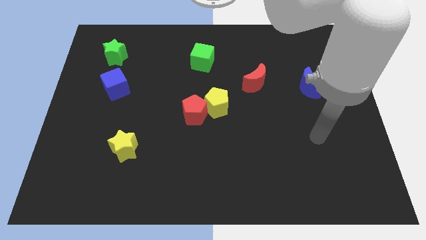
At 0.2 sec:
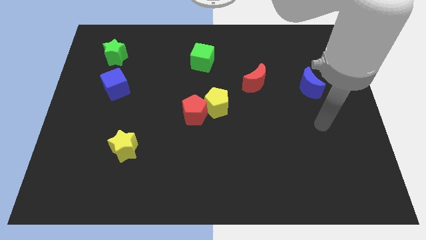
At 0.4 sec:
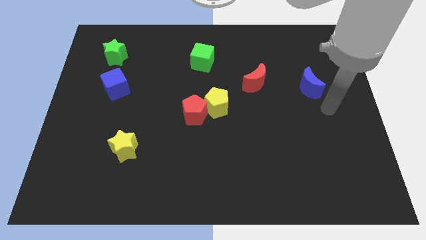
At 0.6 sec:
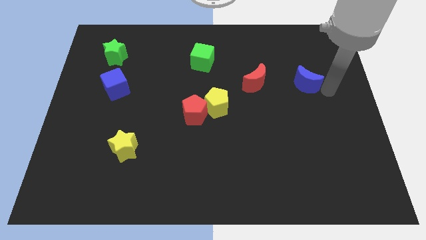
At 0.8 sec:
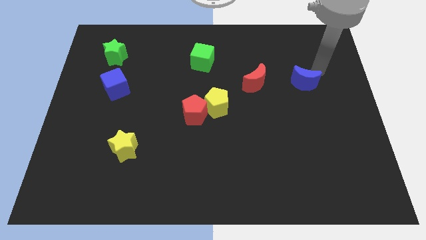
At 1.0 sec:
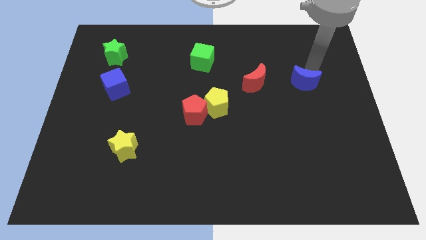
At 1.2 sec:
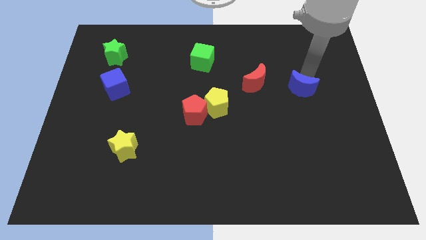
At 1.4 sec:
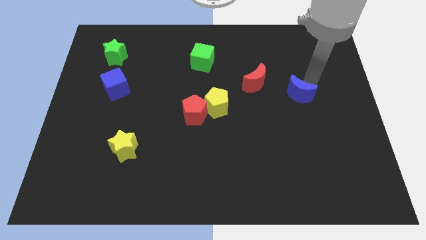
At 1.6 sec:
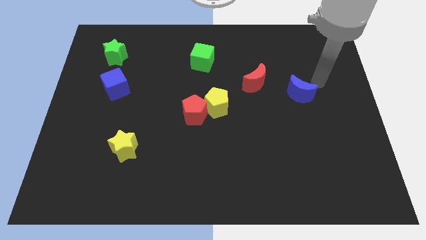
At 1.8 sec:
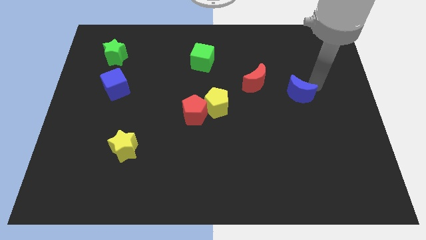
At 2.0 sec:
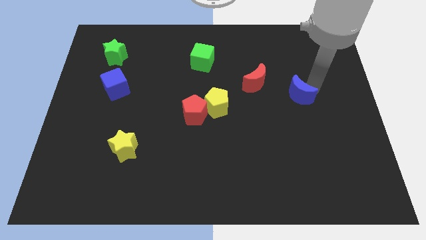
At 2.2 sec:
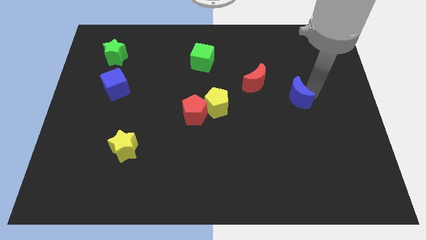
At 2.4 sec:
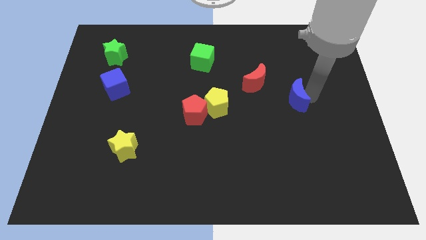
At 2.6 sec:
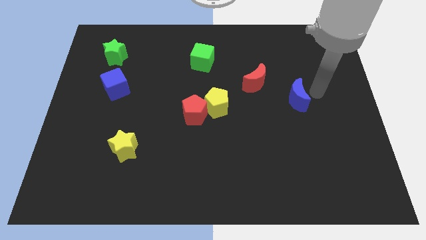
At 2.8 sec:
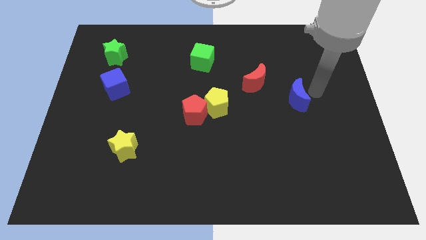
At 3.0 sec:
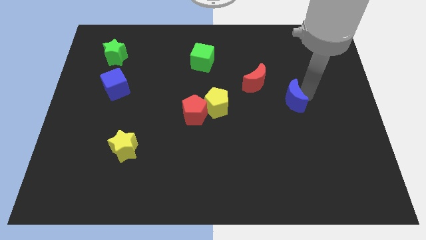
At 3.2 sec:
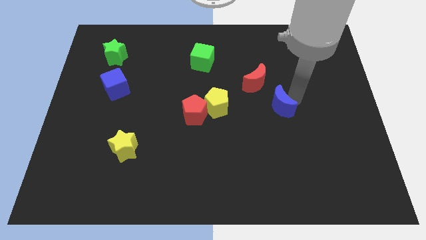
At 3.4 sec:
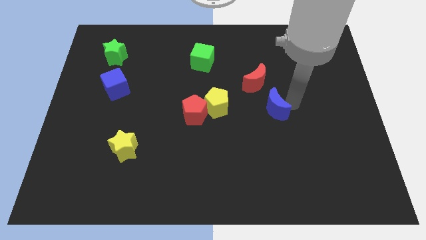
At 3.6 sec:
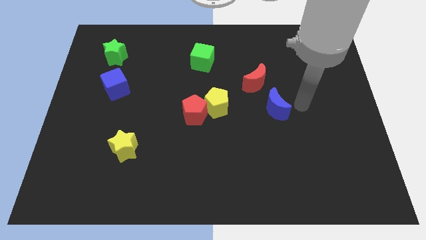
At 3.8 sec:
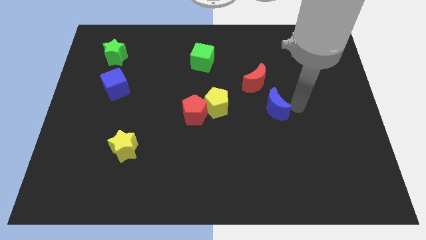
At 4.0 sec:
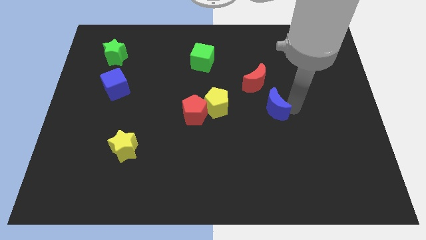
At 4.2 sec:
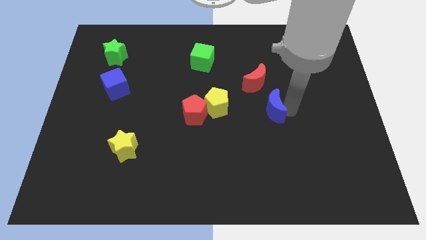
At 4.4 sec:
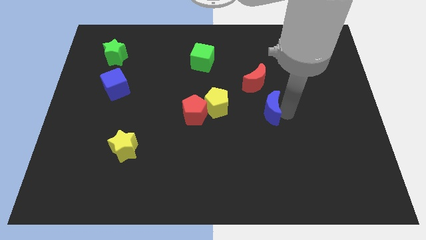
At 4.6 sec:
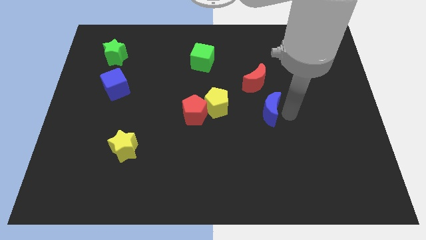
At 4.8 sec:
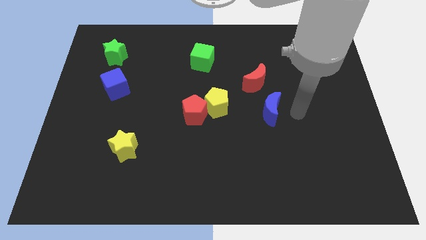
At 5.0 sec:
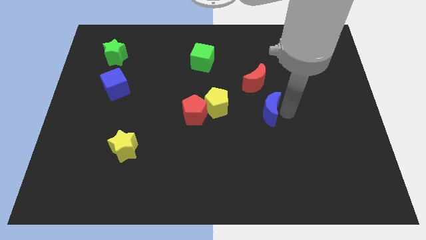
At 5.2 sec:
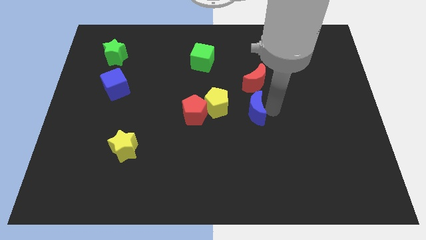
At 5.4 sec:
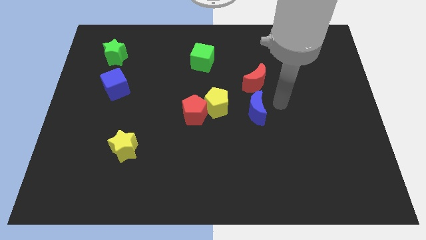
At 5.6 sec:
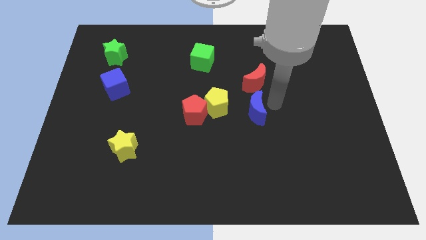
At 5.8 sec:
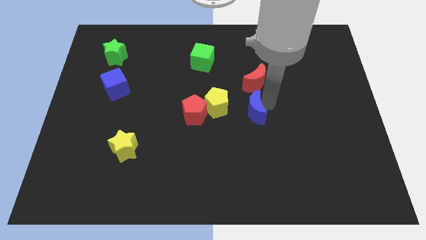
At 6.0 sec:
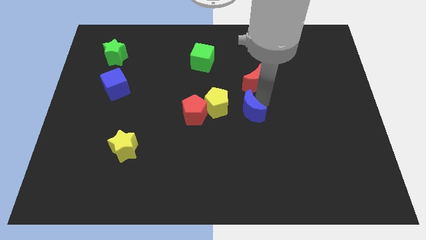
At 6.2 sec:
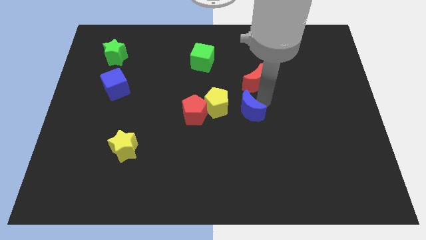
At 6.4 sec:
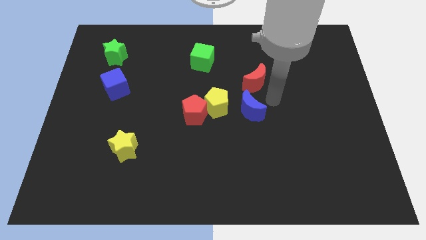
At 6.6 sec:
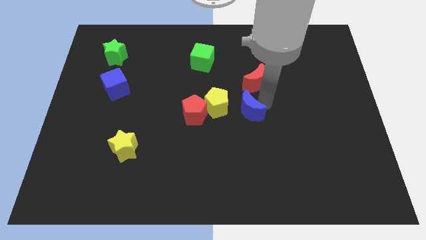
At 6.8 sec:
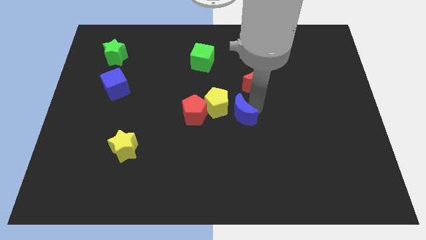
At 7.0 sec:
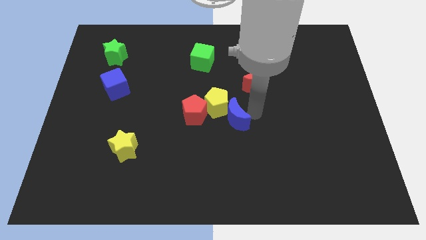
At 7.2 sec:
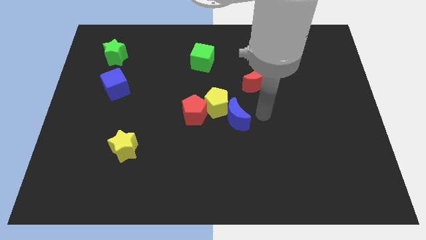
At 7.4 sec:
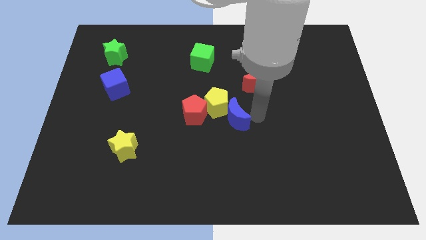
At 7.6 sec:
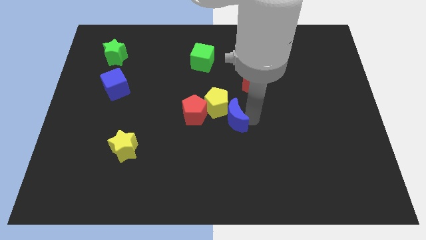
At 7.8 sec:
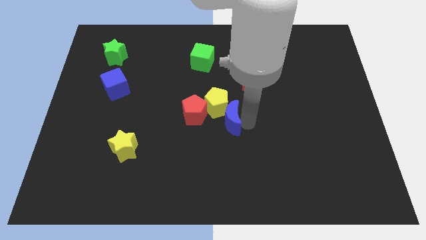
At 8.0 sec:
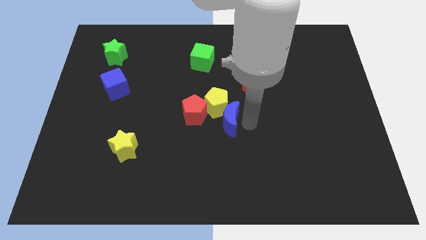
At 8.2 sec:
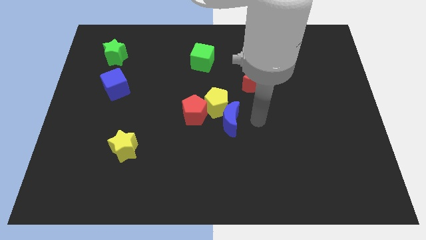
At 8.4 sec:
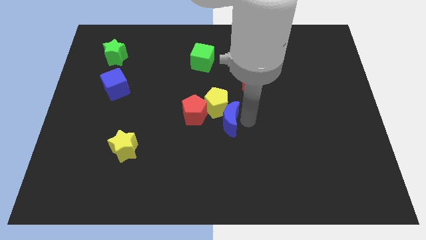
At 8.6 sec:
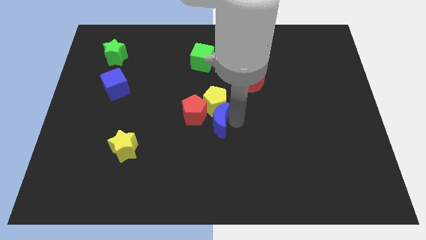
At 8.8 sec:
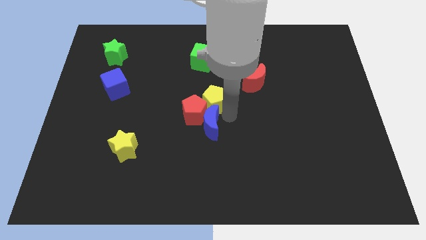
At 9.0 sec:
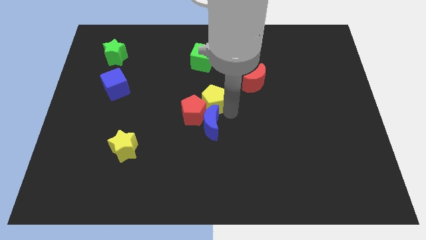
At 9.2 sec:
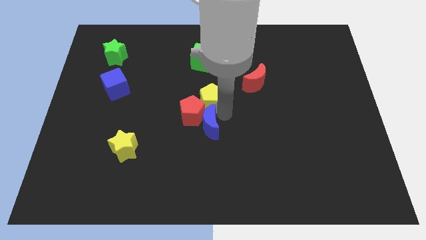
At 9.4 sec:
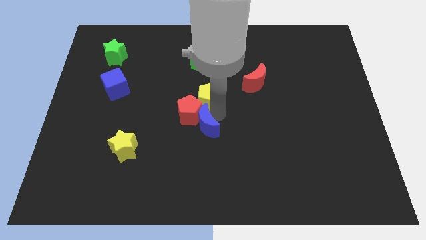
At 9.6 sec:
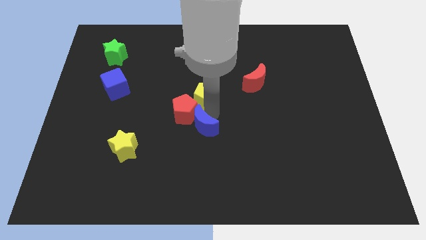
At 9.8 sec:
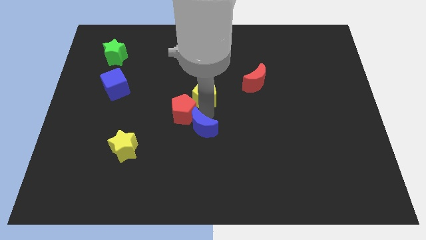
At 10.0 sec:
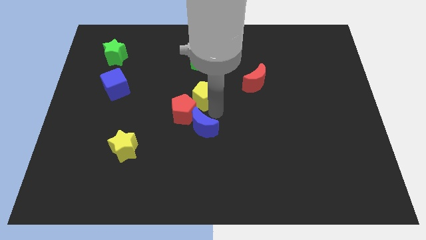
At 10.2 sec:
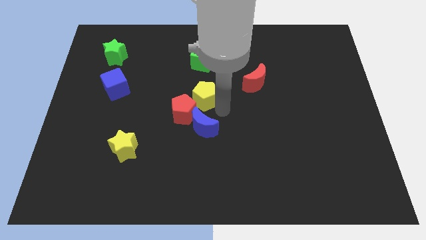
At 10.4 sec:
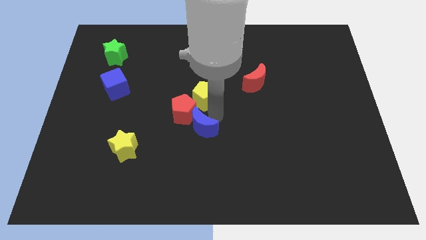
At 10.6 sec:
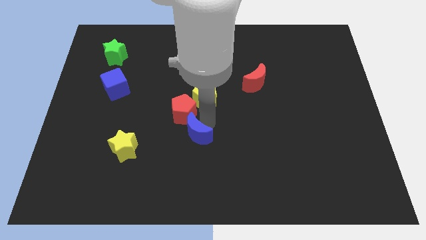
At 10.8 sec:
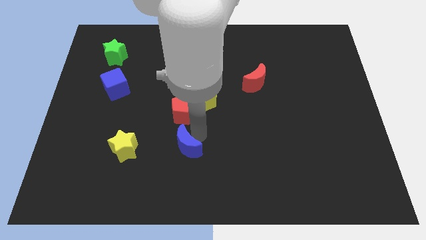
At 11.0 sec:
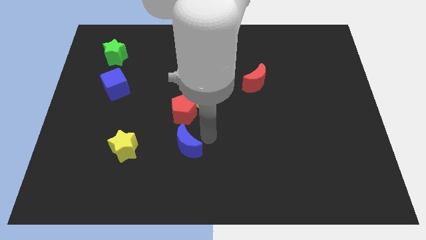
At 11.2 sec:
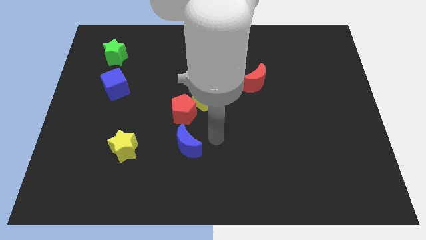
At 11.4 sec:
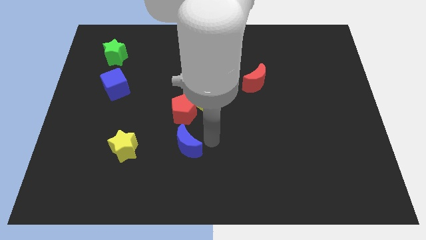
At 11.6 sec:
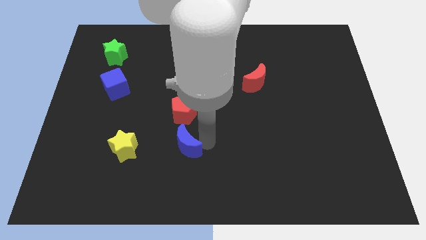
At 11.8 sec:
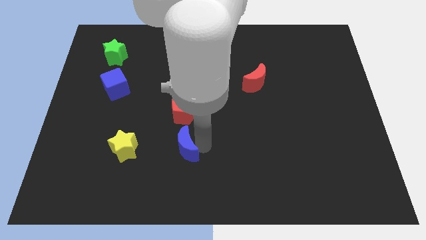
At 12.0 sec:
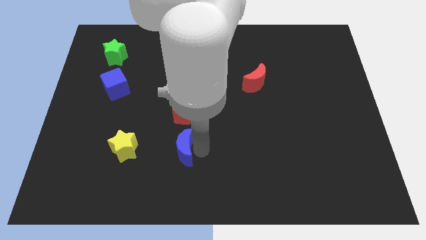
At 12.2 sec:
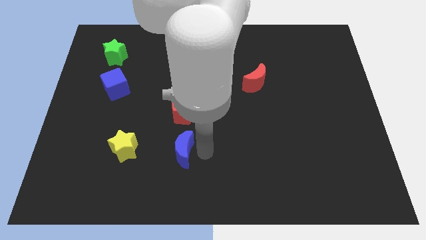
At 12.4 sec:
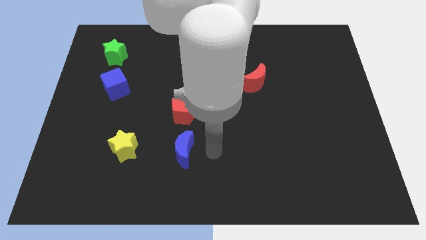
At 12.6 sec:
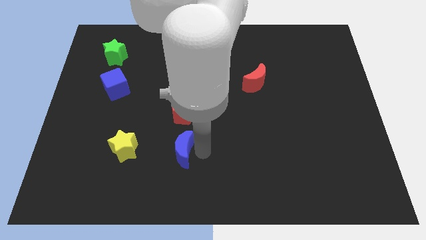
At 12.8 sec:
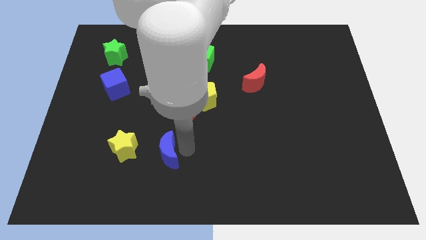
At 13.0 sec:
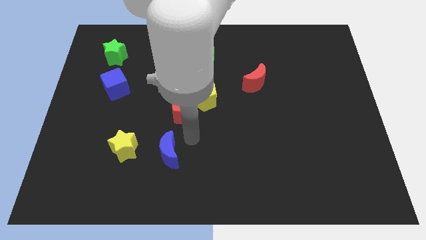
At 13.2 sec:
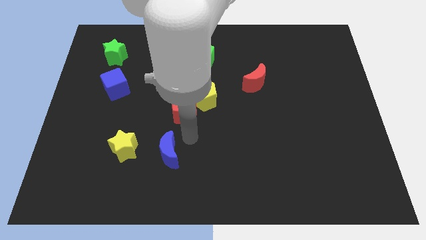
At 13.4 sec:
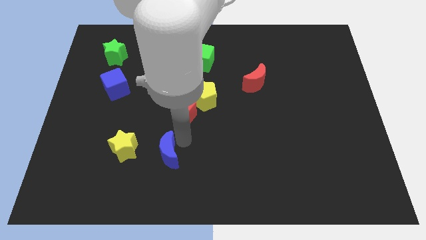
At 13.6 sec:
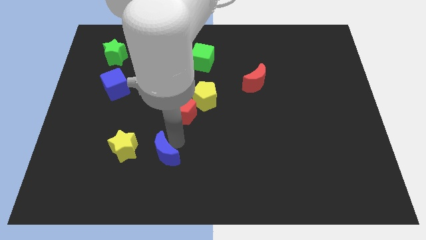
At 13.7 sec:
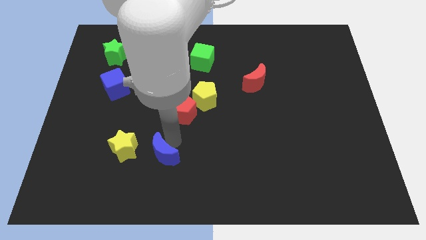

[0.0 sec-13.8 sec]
slide the blue moon to the bottom right of the yellow star

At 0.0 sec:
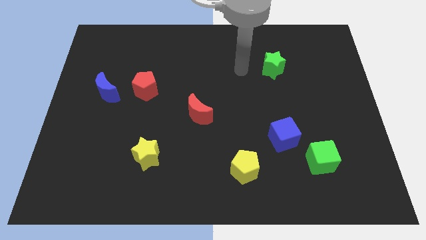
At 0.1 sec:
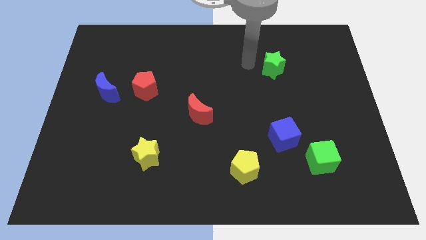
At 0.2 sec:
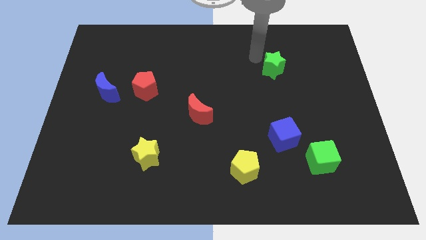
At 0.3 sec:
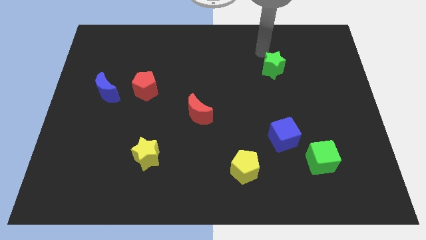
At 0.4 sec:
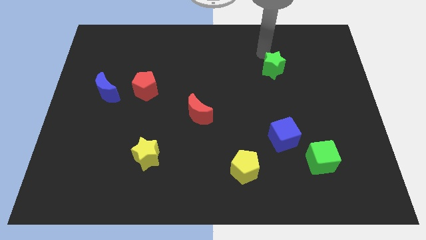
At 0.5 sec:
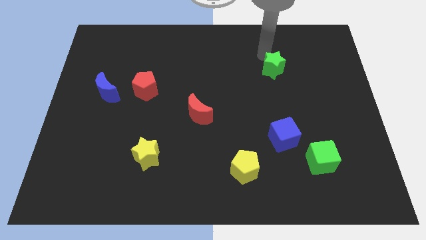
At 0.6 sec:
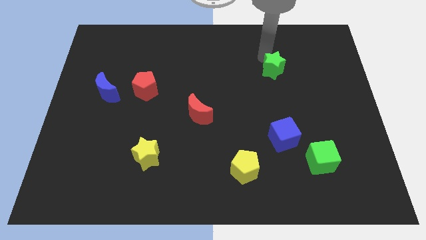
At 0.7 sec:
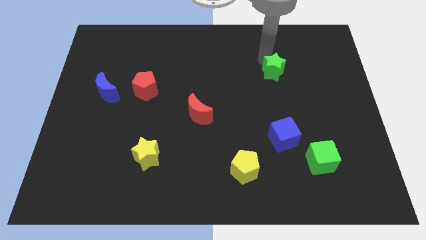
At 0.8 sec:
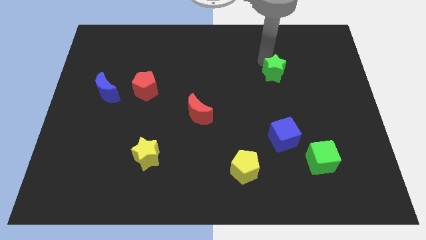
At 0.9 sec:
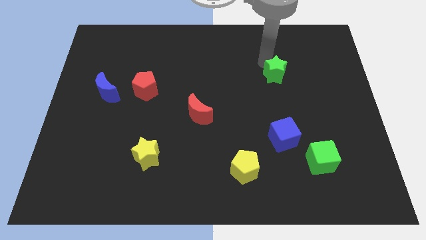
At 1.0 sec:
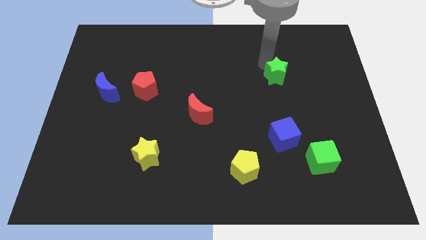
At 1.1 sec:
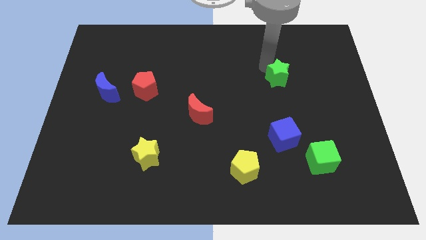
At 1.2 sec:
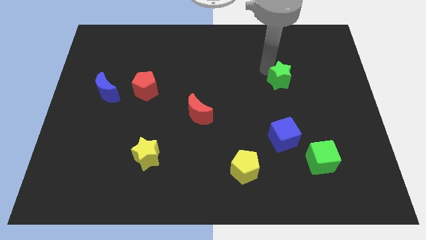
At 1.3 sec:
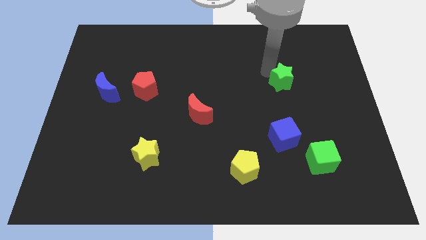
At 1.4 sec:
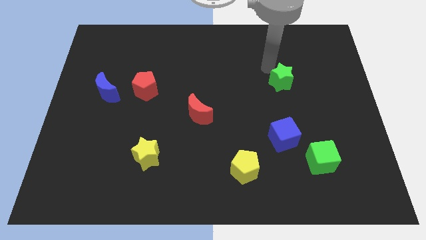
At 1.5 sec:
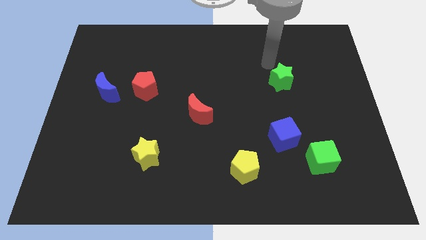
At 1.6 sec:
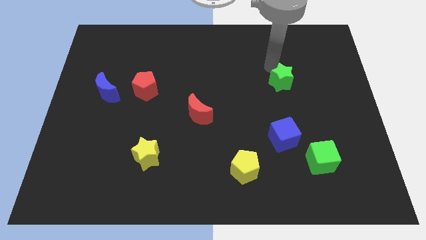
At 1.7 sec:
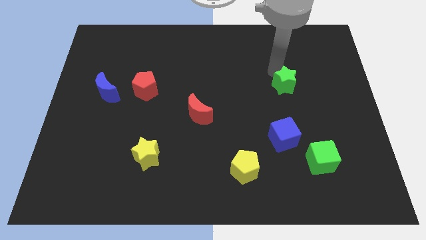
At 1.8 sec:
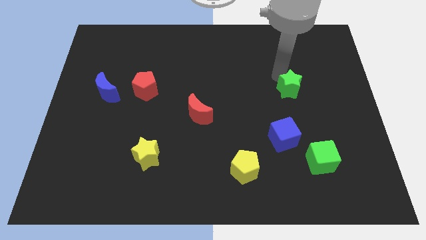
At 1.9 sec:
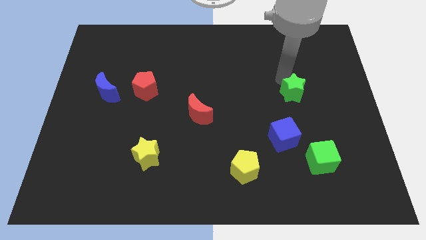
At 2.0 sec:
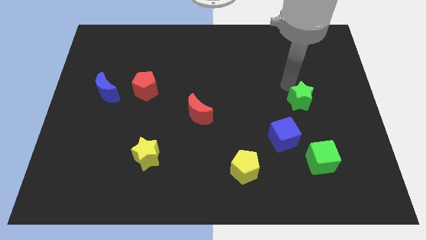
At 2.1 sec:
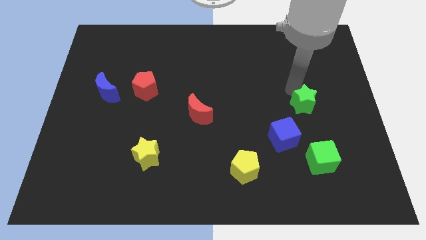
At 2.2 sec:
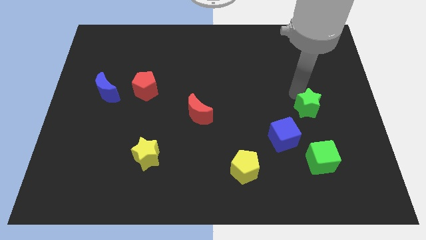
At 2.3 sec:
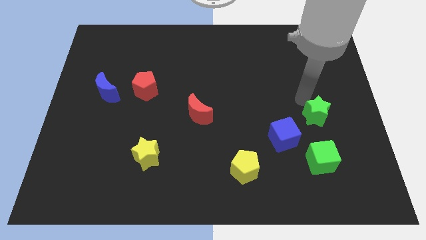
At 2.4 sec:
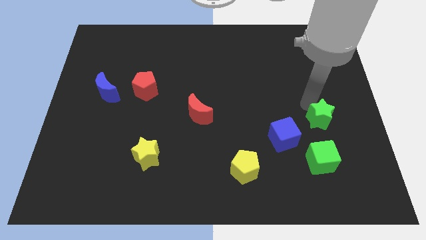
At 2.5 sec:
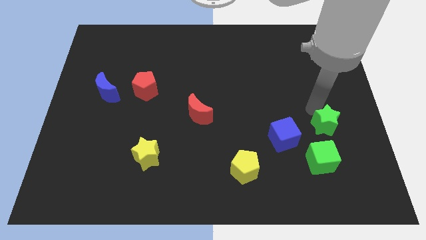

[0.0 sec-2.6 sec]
slide the green star just right of the blue cube
